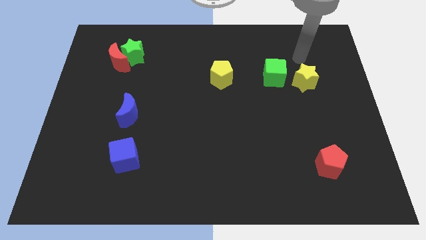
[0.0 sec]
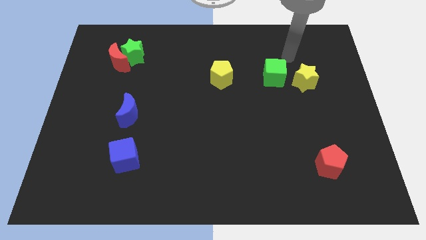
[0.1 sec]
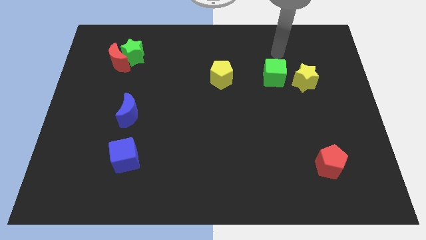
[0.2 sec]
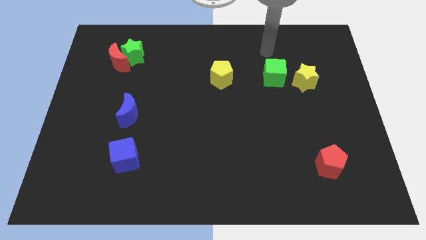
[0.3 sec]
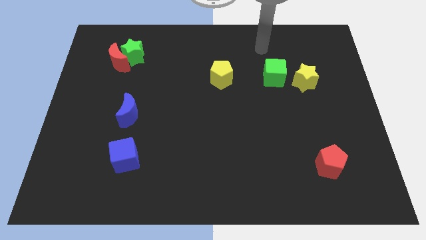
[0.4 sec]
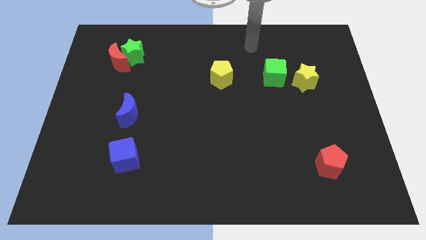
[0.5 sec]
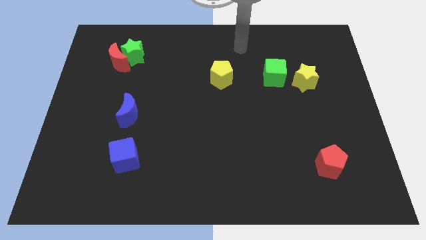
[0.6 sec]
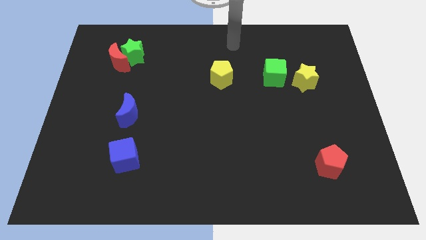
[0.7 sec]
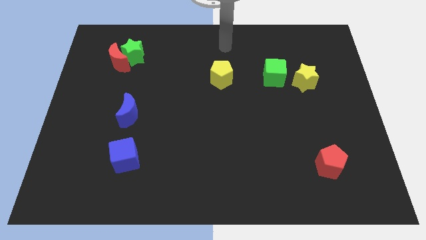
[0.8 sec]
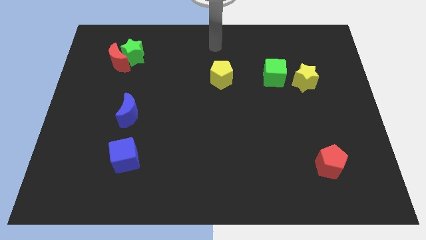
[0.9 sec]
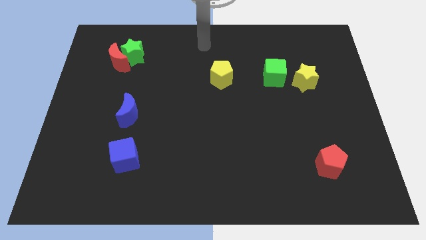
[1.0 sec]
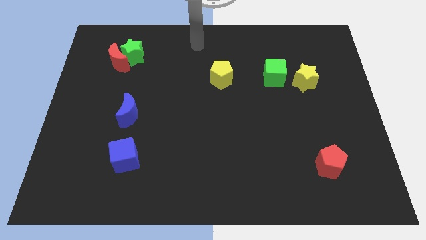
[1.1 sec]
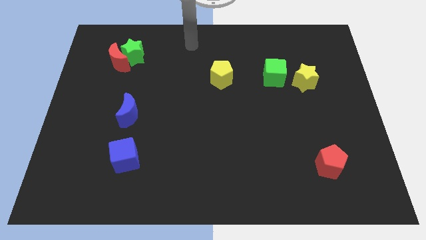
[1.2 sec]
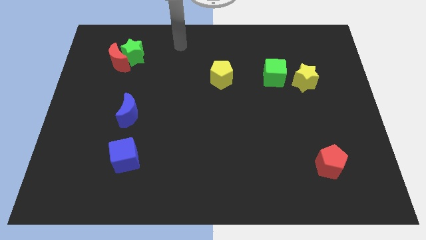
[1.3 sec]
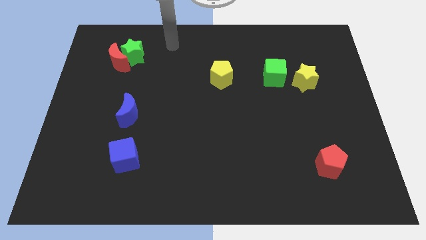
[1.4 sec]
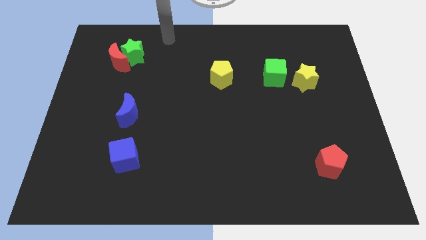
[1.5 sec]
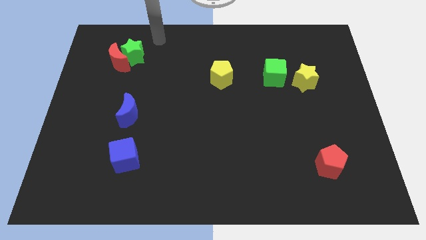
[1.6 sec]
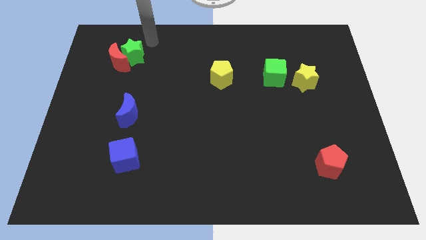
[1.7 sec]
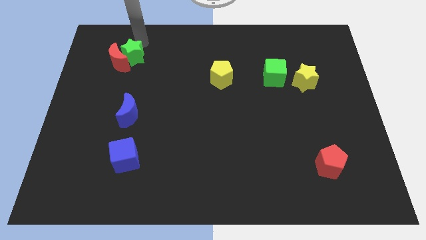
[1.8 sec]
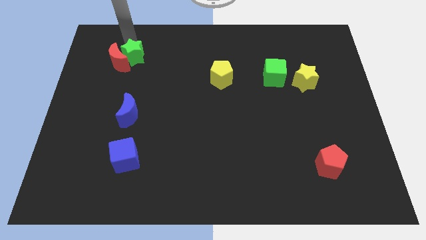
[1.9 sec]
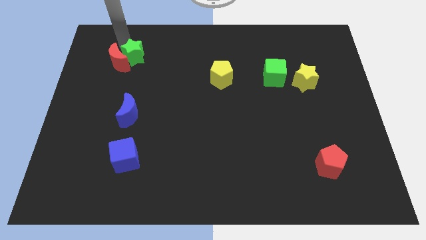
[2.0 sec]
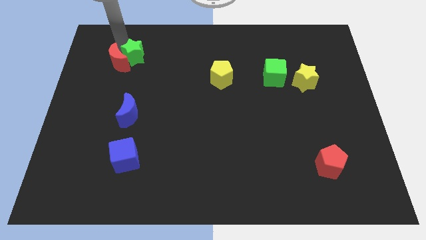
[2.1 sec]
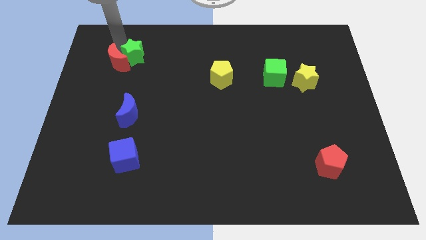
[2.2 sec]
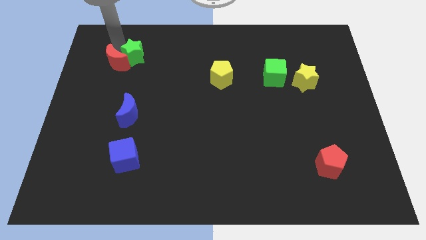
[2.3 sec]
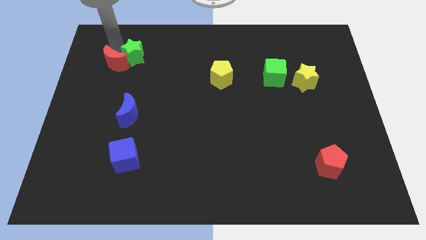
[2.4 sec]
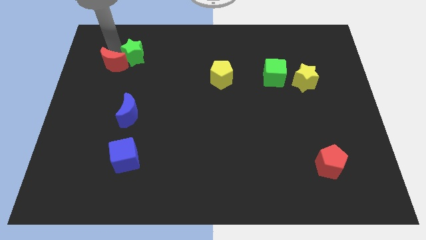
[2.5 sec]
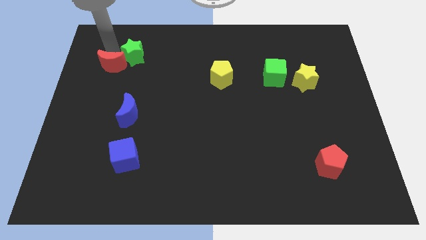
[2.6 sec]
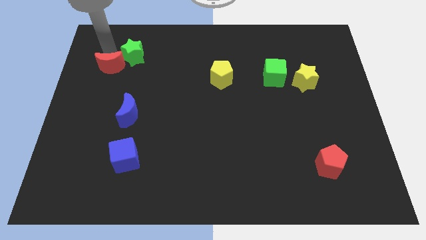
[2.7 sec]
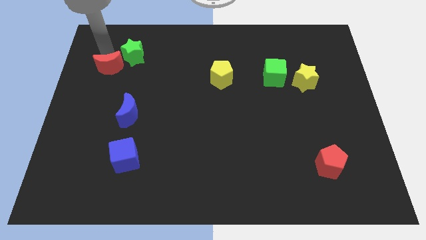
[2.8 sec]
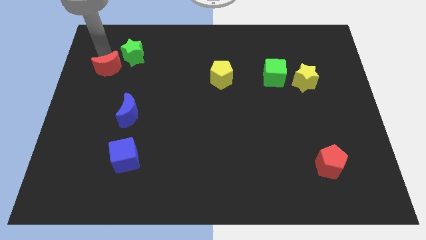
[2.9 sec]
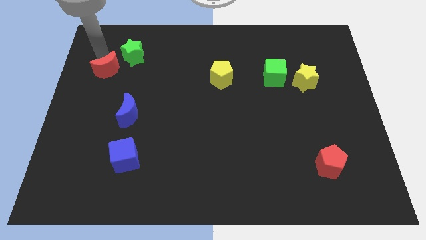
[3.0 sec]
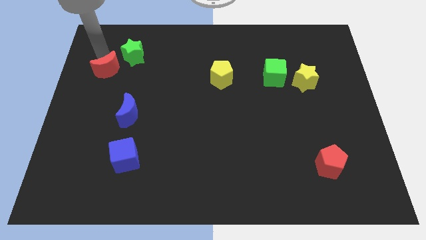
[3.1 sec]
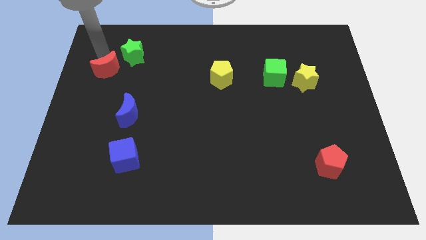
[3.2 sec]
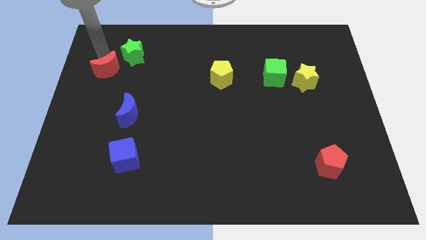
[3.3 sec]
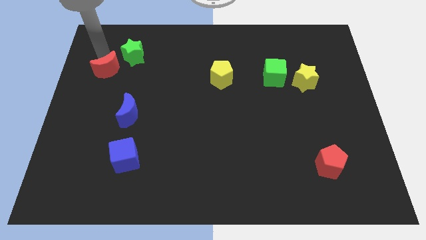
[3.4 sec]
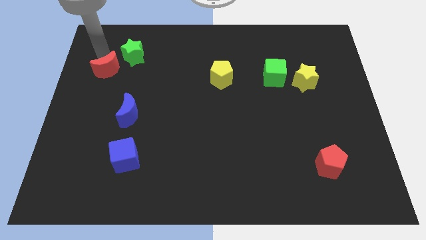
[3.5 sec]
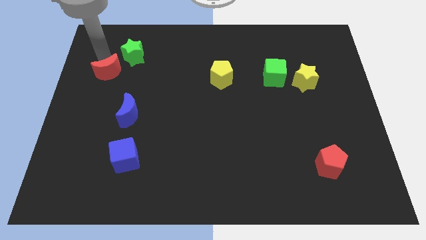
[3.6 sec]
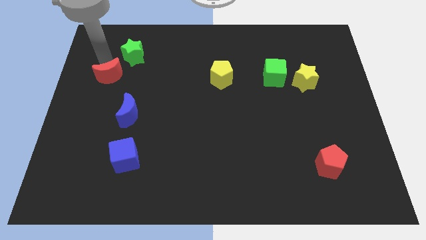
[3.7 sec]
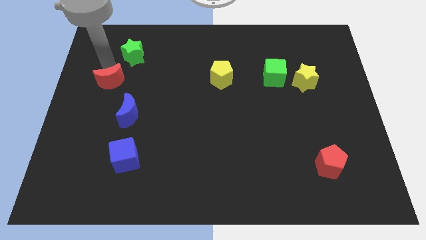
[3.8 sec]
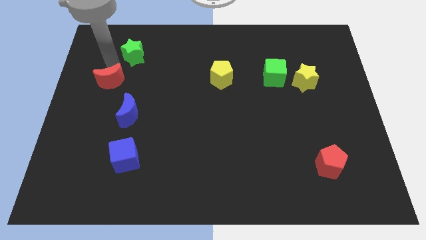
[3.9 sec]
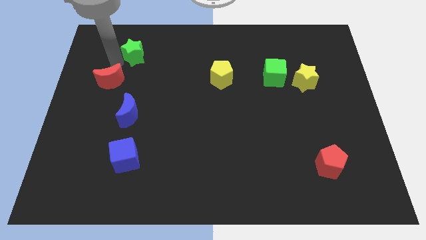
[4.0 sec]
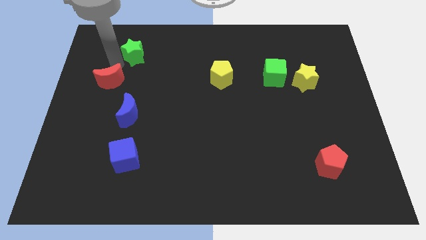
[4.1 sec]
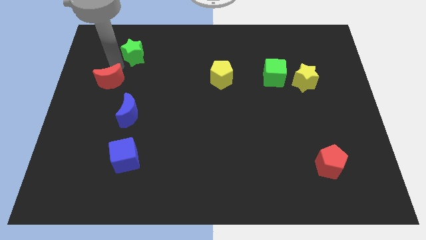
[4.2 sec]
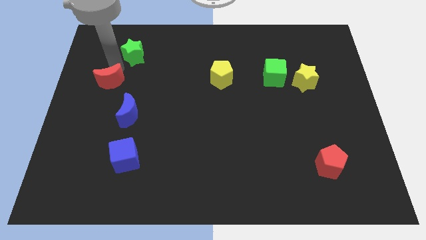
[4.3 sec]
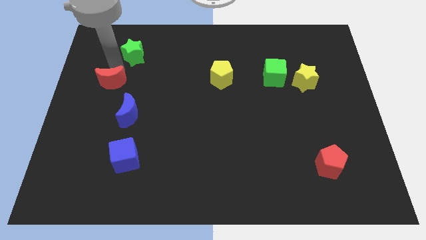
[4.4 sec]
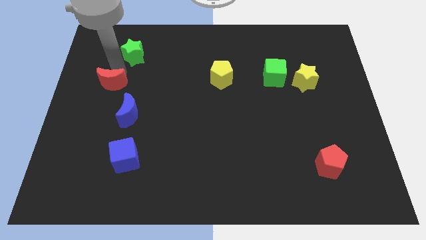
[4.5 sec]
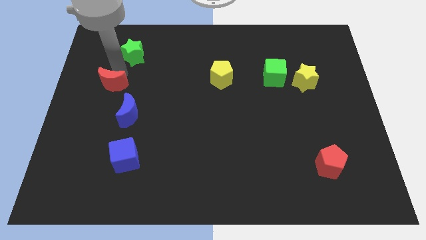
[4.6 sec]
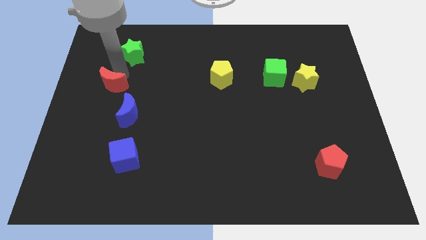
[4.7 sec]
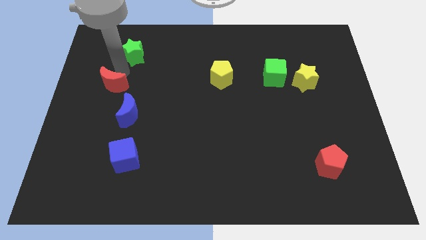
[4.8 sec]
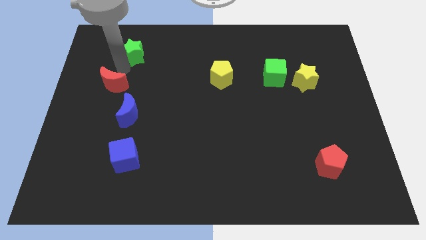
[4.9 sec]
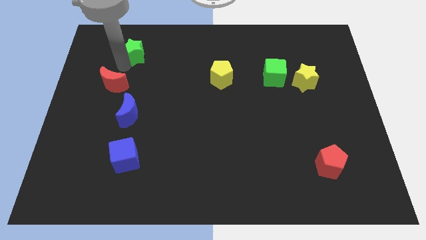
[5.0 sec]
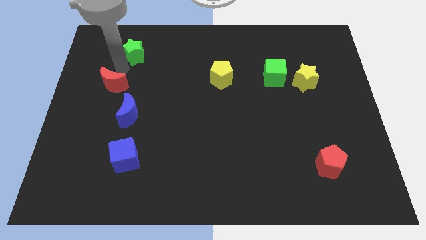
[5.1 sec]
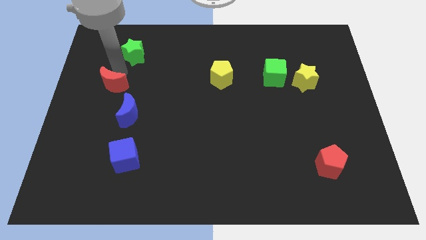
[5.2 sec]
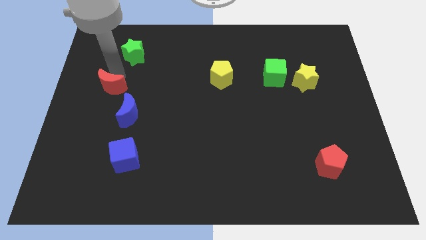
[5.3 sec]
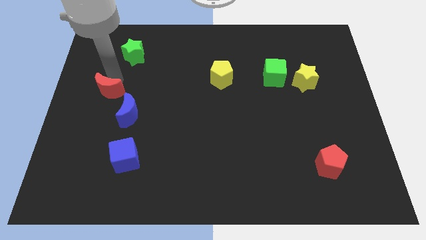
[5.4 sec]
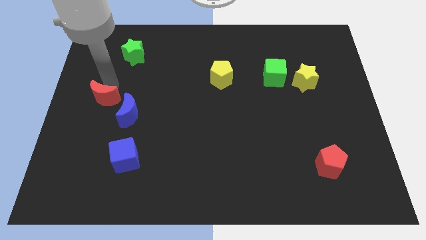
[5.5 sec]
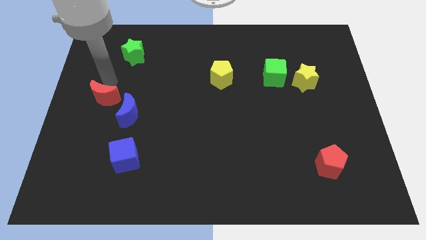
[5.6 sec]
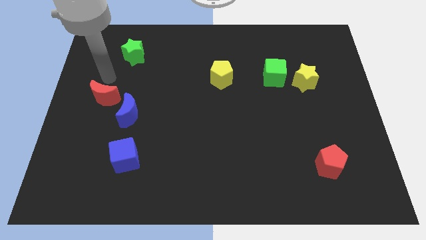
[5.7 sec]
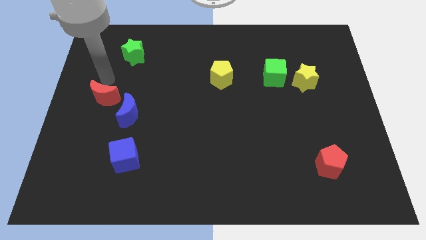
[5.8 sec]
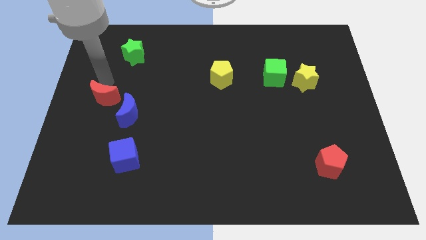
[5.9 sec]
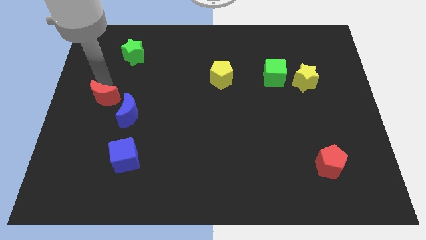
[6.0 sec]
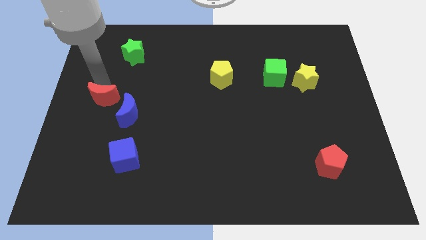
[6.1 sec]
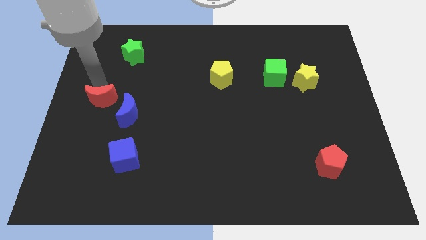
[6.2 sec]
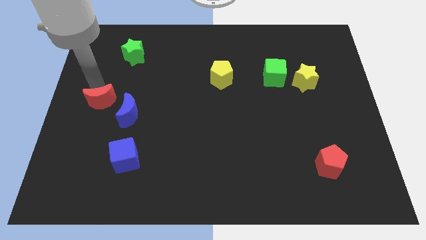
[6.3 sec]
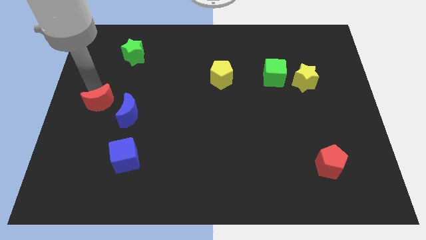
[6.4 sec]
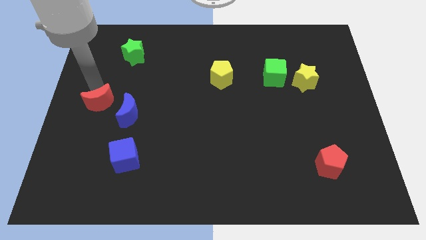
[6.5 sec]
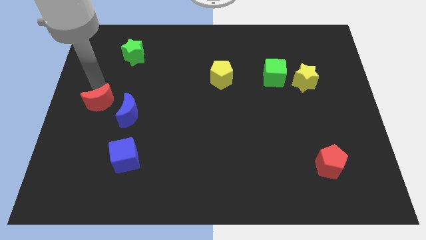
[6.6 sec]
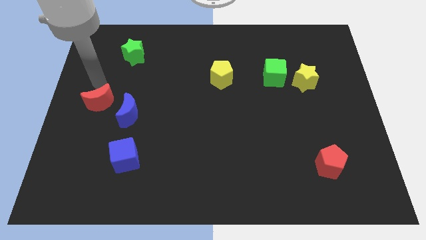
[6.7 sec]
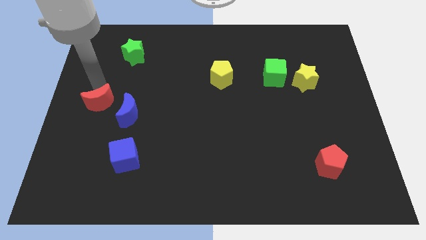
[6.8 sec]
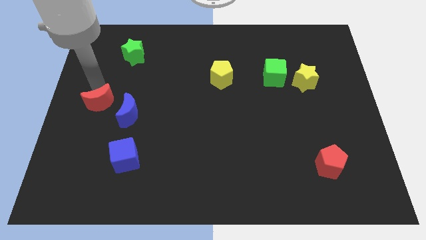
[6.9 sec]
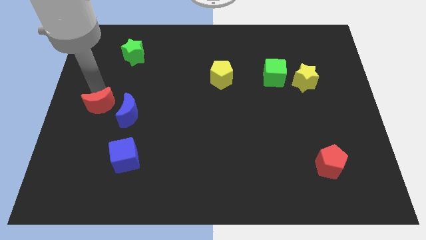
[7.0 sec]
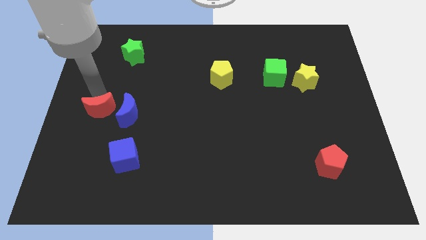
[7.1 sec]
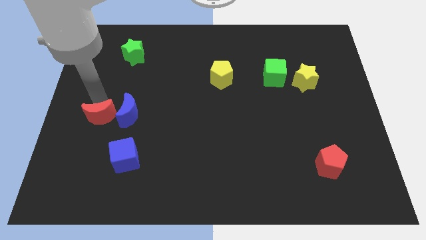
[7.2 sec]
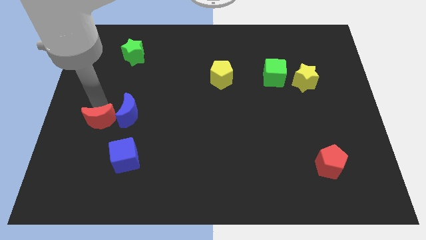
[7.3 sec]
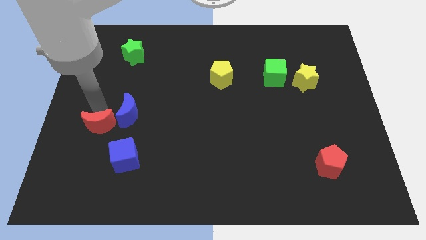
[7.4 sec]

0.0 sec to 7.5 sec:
move the red moon down

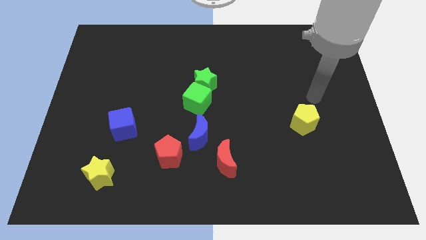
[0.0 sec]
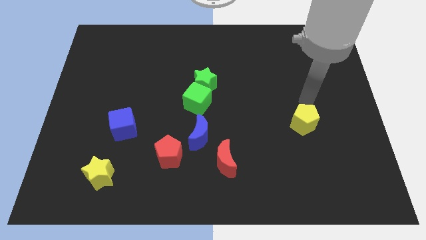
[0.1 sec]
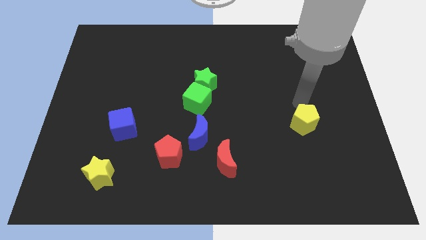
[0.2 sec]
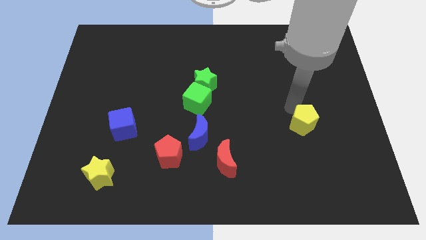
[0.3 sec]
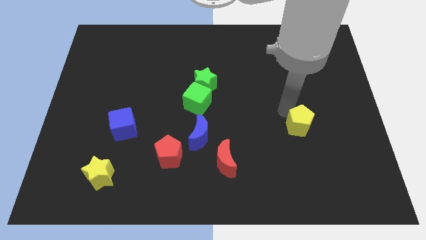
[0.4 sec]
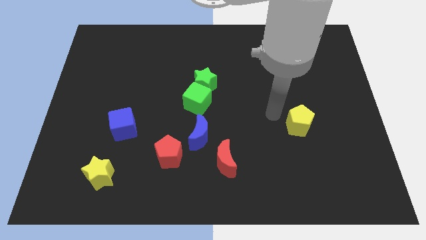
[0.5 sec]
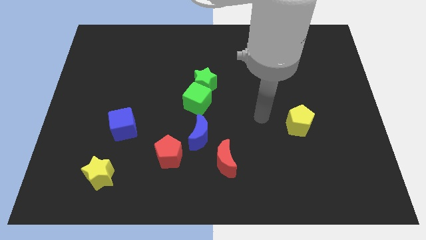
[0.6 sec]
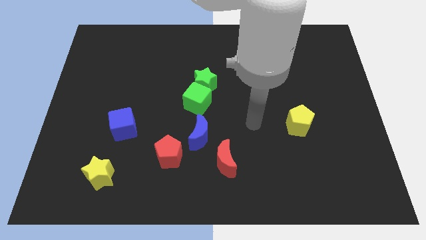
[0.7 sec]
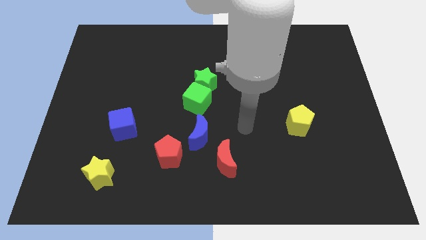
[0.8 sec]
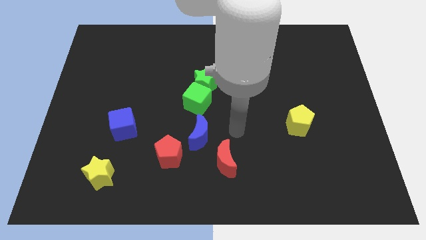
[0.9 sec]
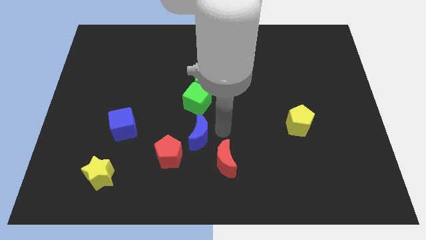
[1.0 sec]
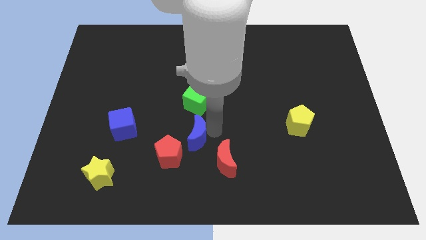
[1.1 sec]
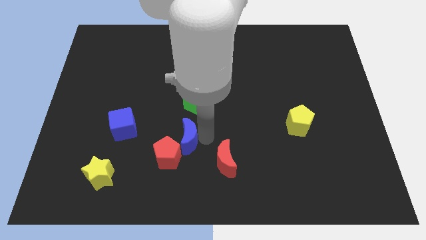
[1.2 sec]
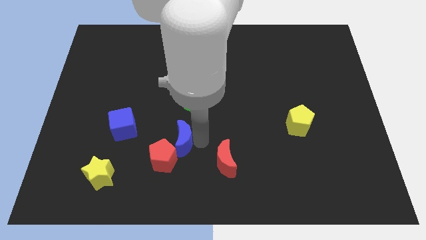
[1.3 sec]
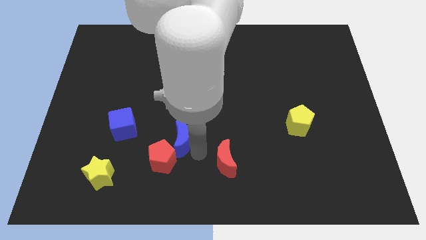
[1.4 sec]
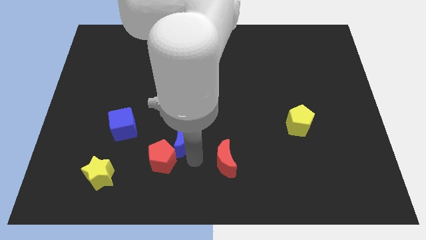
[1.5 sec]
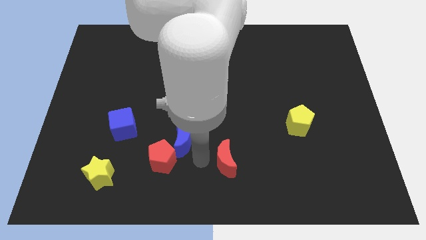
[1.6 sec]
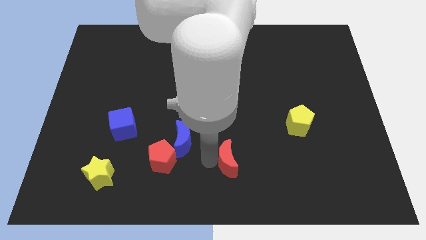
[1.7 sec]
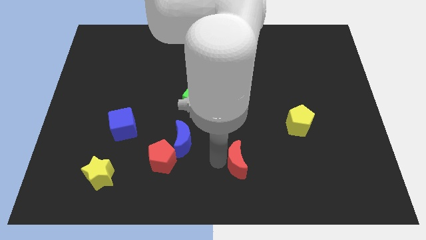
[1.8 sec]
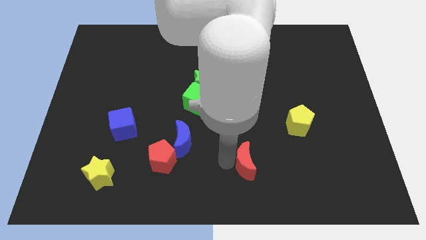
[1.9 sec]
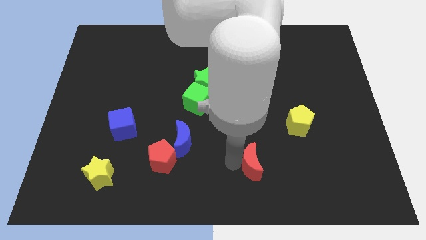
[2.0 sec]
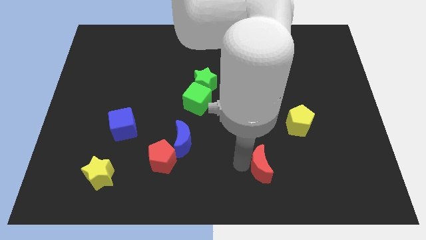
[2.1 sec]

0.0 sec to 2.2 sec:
move the red moon a little to the right
